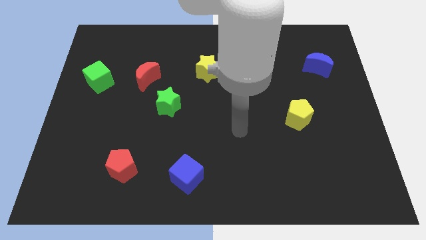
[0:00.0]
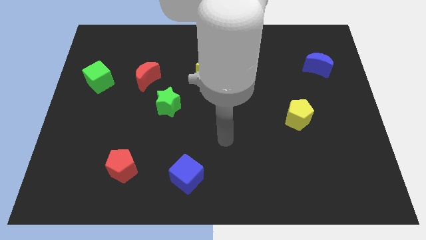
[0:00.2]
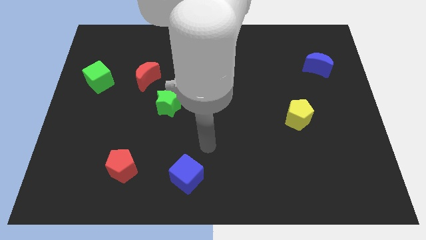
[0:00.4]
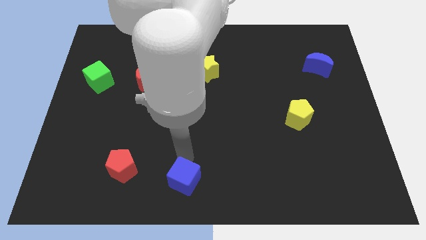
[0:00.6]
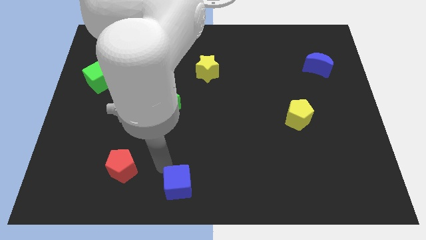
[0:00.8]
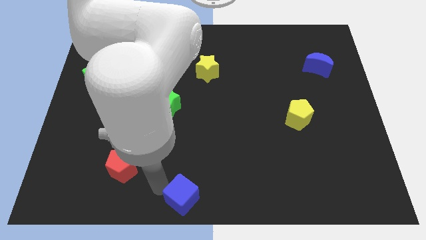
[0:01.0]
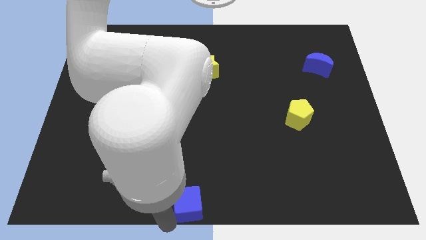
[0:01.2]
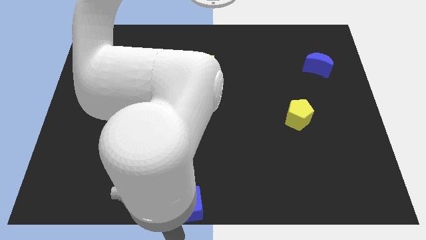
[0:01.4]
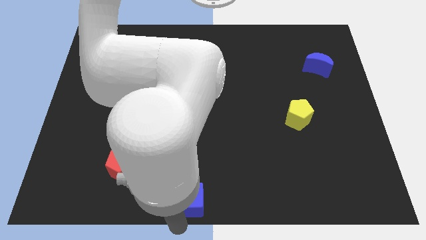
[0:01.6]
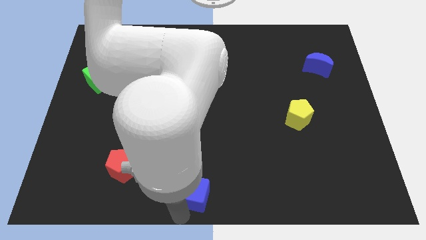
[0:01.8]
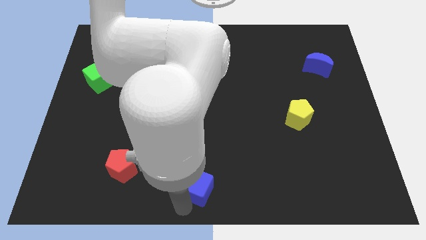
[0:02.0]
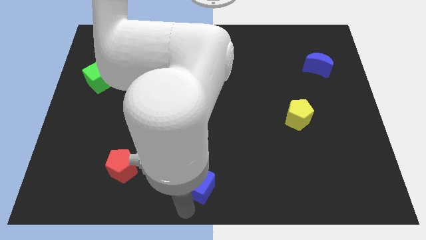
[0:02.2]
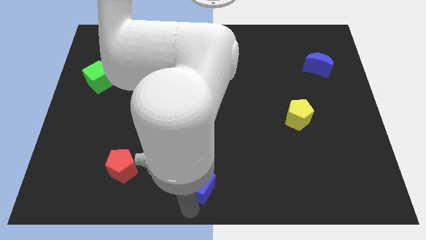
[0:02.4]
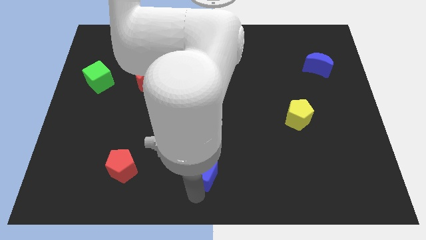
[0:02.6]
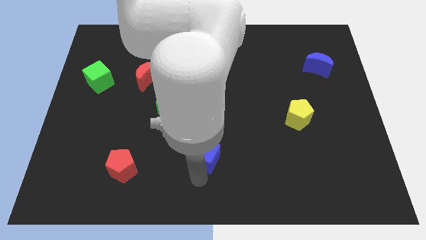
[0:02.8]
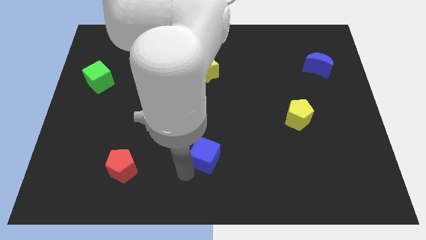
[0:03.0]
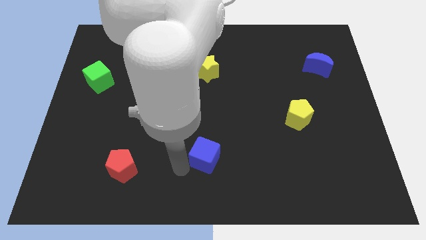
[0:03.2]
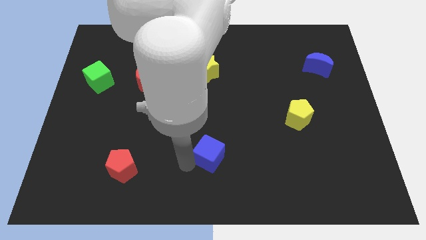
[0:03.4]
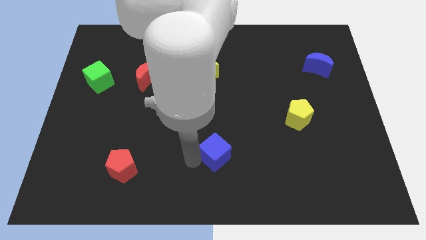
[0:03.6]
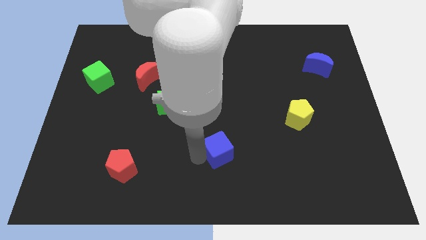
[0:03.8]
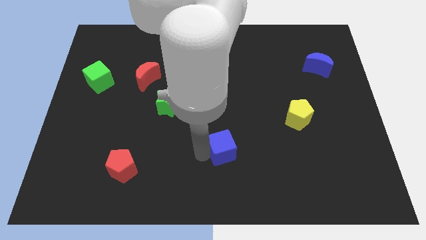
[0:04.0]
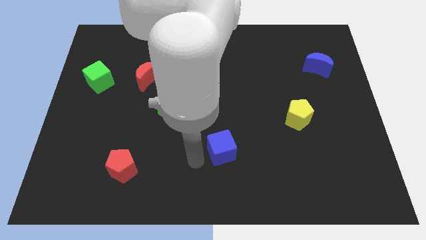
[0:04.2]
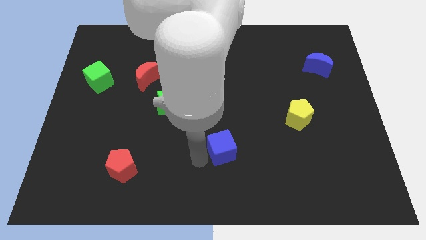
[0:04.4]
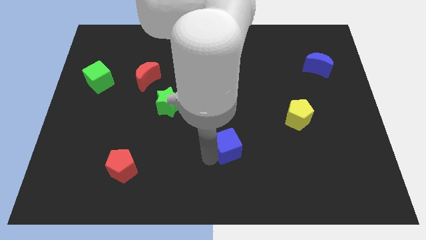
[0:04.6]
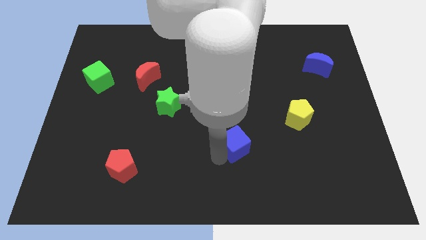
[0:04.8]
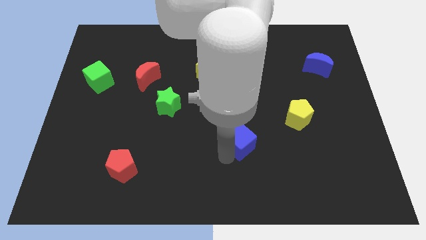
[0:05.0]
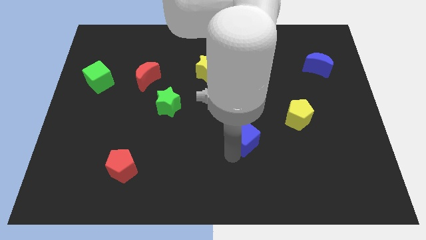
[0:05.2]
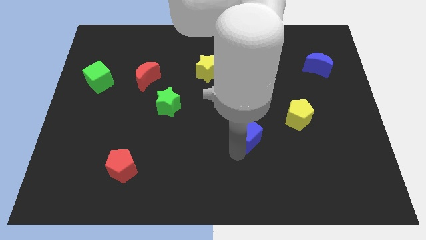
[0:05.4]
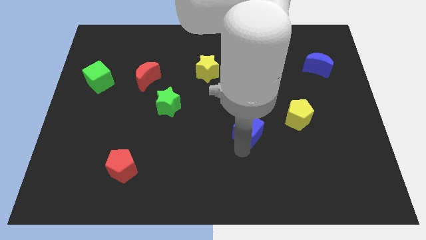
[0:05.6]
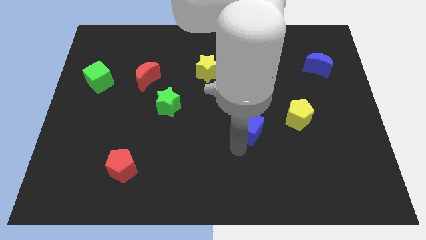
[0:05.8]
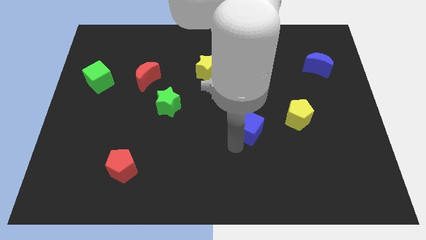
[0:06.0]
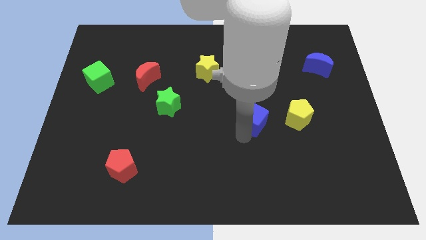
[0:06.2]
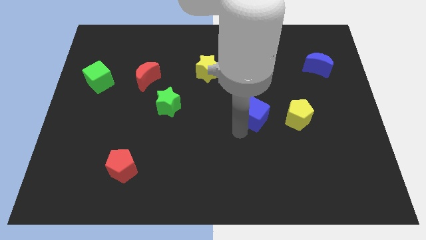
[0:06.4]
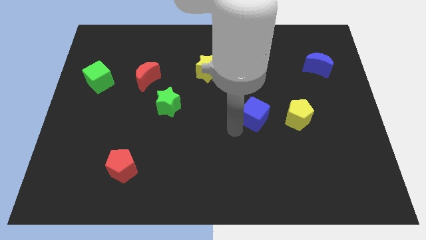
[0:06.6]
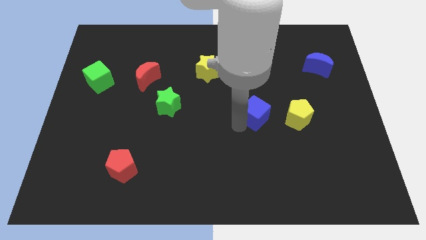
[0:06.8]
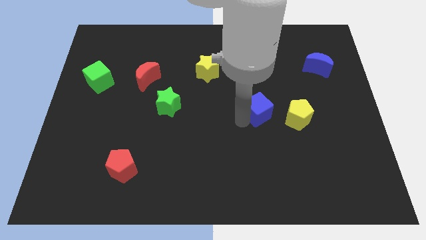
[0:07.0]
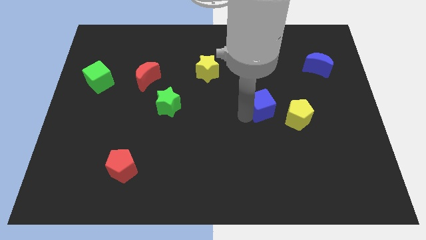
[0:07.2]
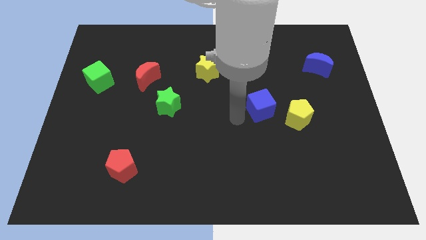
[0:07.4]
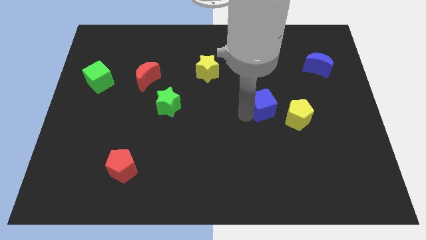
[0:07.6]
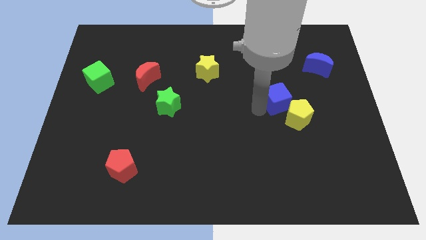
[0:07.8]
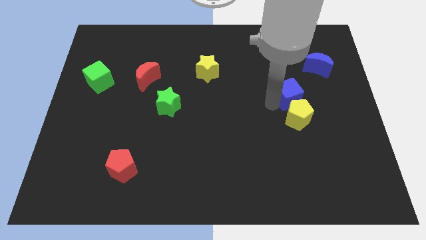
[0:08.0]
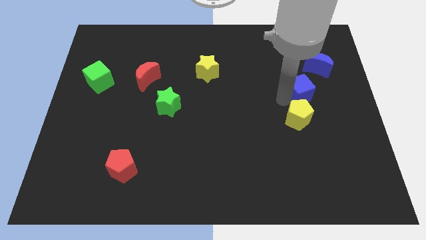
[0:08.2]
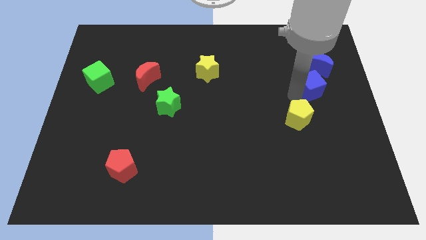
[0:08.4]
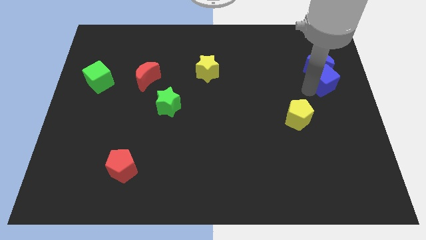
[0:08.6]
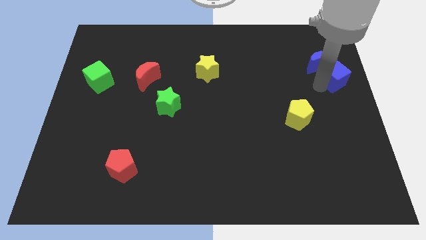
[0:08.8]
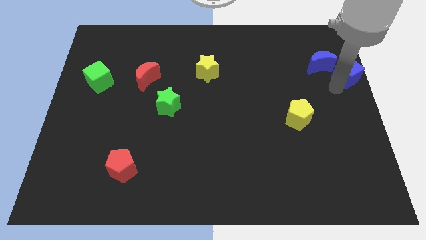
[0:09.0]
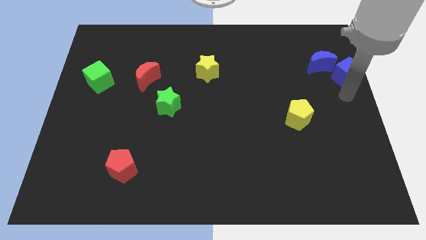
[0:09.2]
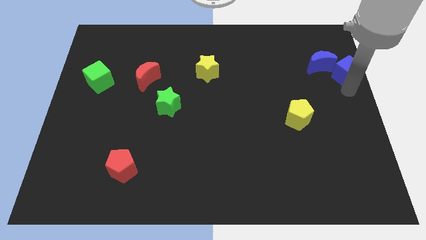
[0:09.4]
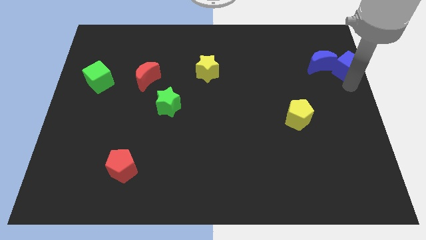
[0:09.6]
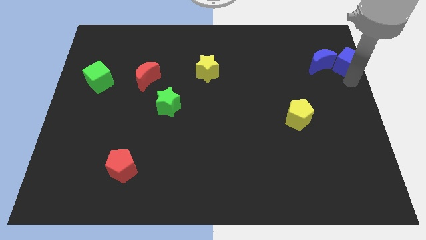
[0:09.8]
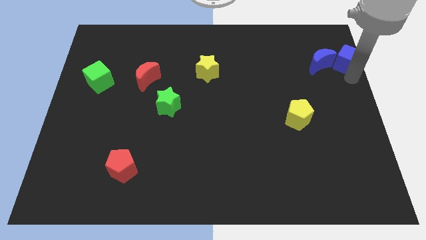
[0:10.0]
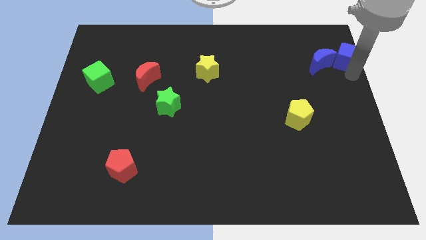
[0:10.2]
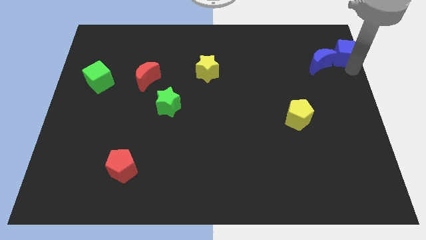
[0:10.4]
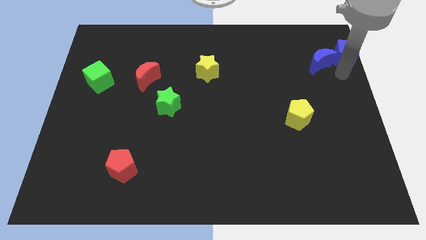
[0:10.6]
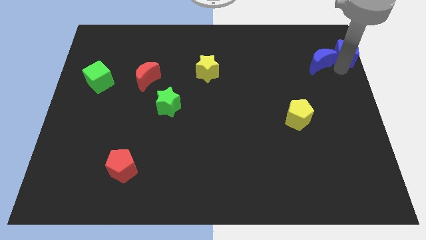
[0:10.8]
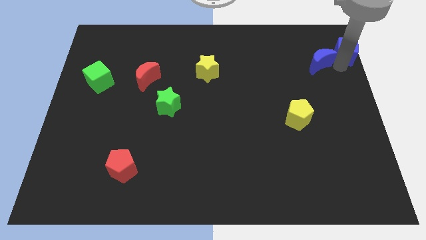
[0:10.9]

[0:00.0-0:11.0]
slide the blue cube to the top right corner

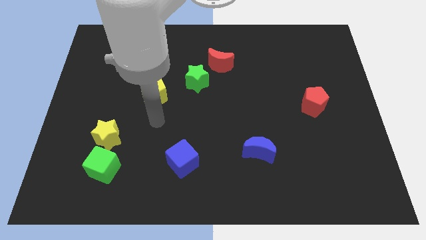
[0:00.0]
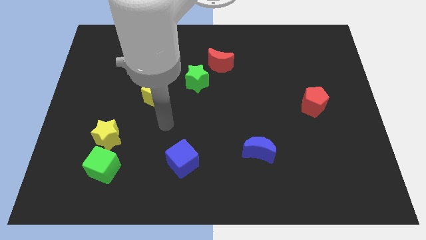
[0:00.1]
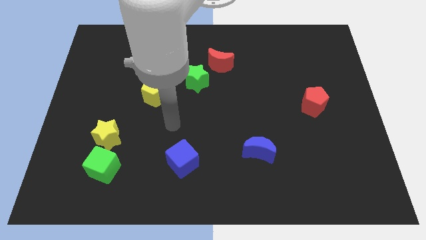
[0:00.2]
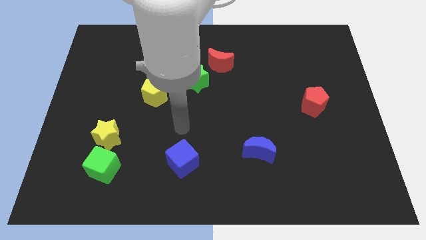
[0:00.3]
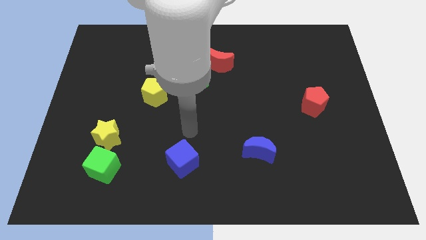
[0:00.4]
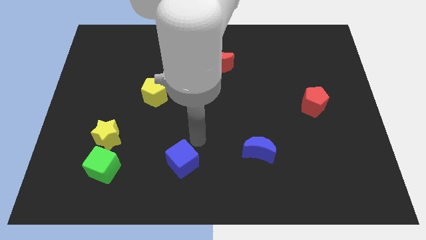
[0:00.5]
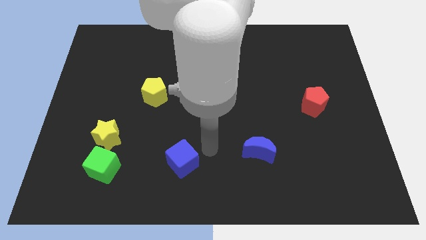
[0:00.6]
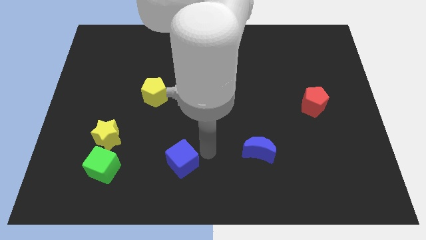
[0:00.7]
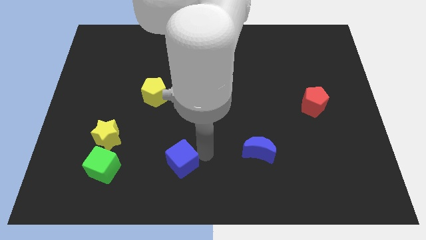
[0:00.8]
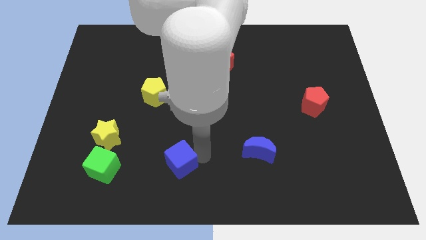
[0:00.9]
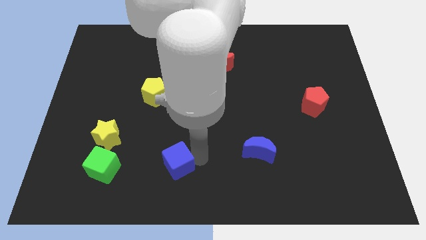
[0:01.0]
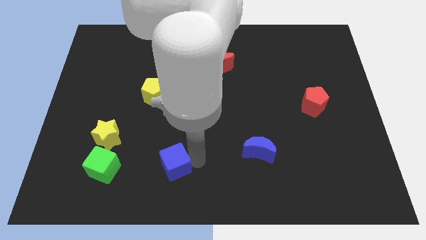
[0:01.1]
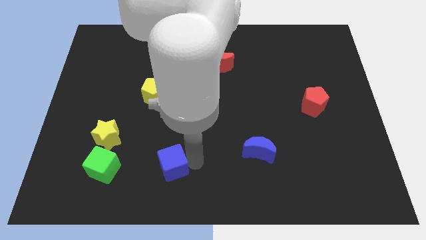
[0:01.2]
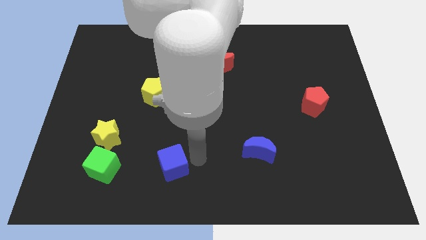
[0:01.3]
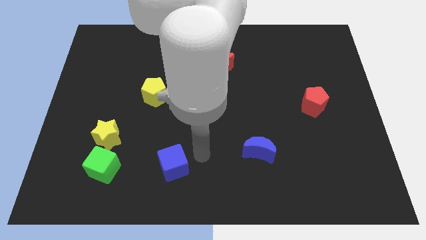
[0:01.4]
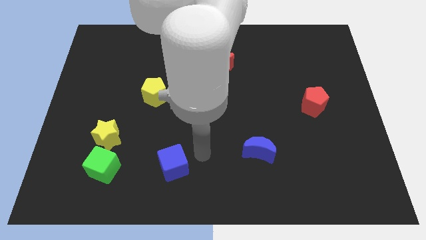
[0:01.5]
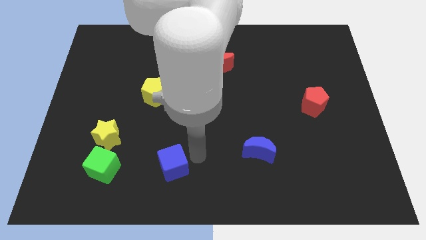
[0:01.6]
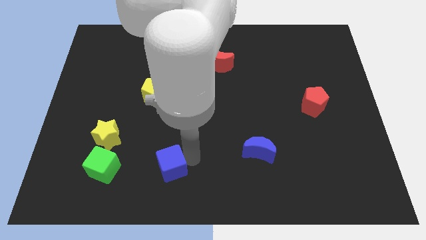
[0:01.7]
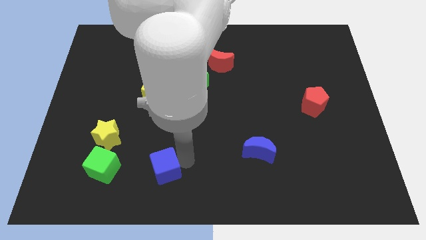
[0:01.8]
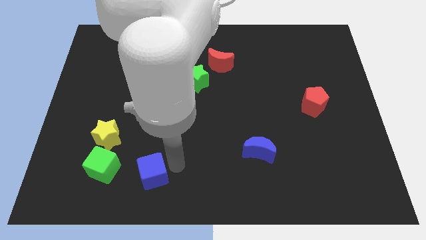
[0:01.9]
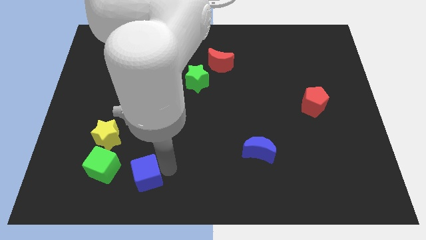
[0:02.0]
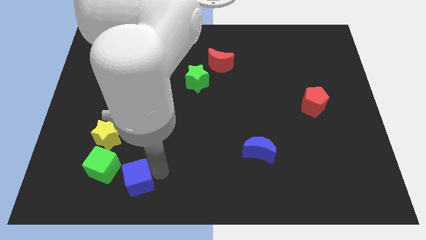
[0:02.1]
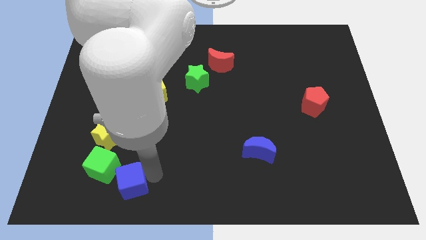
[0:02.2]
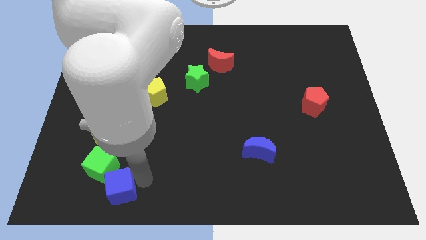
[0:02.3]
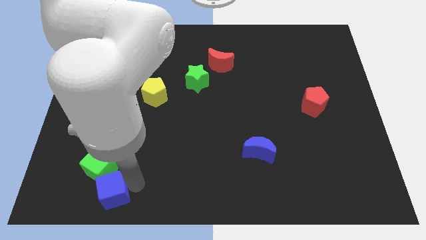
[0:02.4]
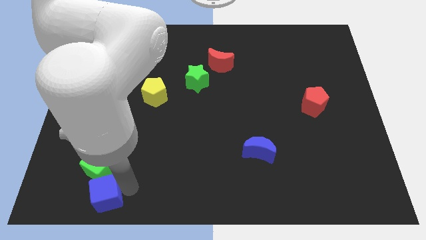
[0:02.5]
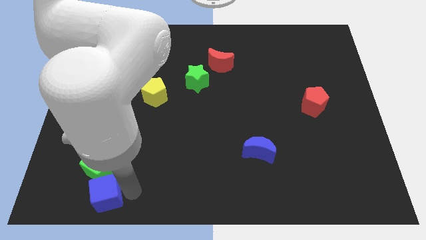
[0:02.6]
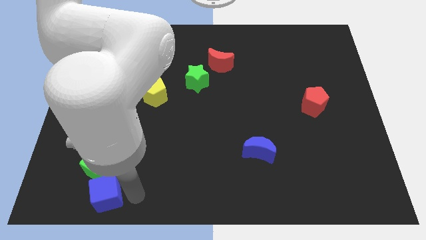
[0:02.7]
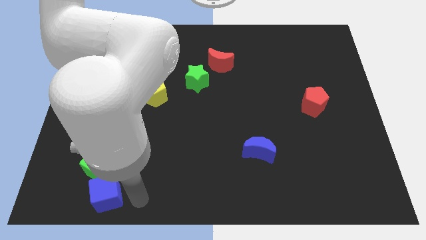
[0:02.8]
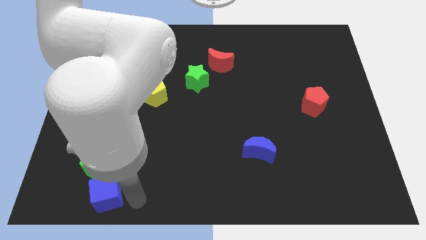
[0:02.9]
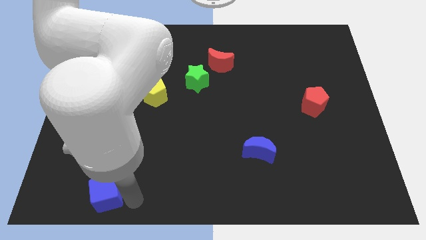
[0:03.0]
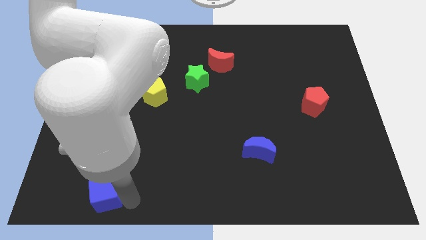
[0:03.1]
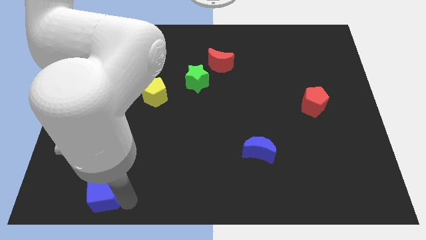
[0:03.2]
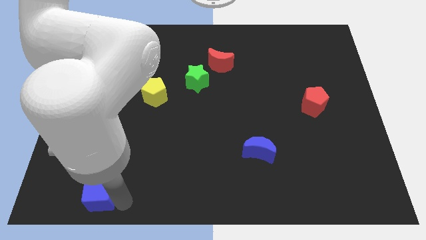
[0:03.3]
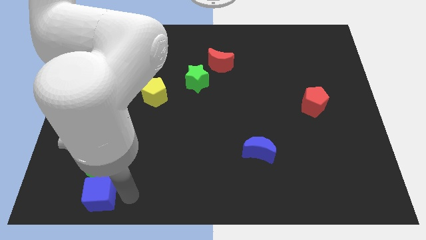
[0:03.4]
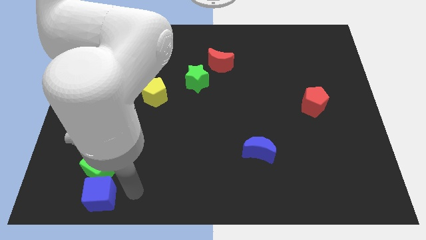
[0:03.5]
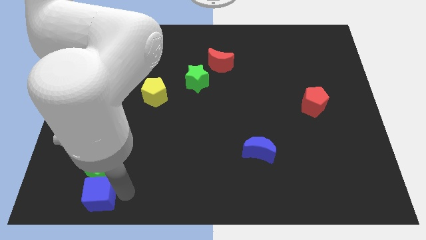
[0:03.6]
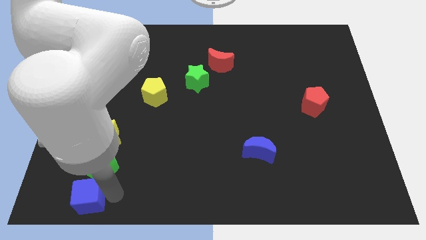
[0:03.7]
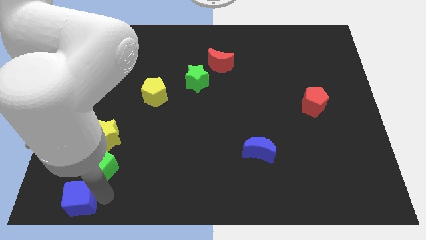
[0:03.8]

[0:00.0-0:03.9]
push the blue cube to the bottom left of the board
